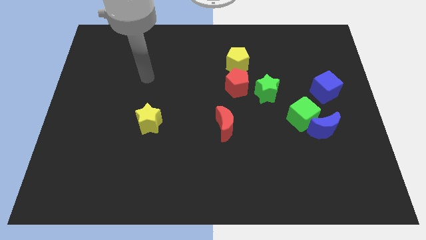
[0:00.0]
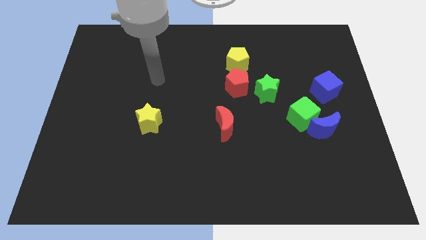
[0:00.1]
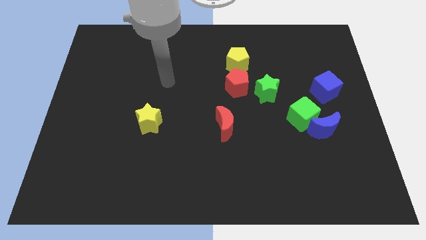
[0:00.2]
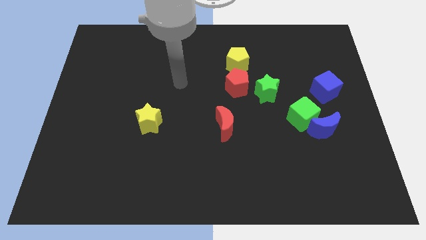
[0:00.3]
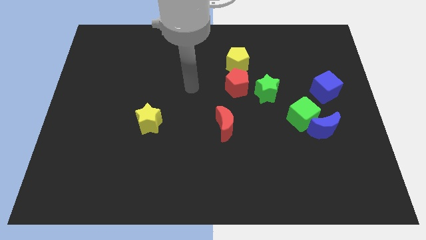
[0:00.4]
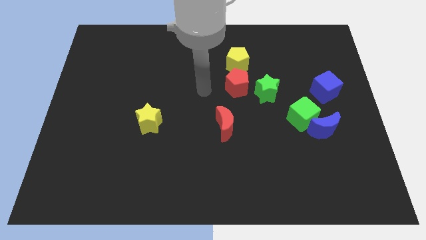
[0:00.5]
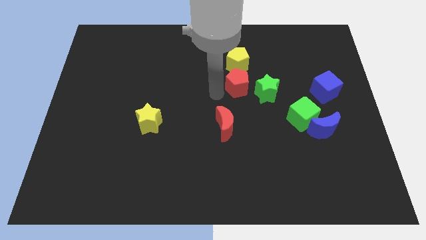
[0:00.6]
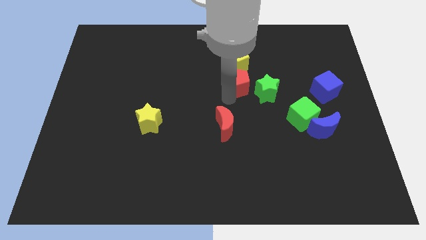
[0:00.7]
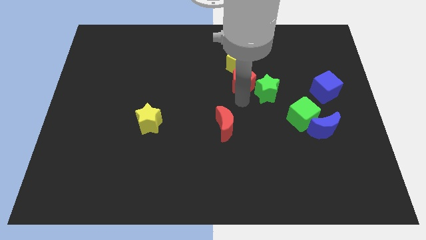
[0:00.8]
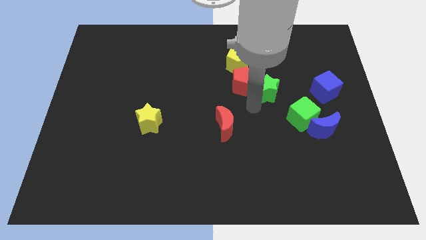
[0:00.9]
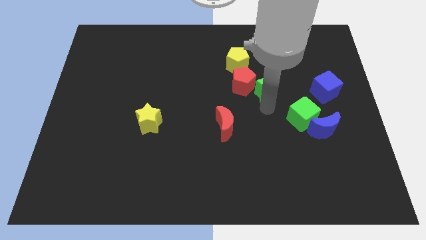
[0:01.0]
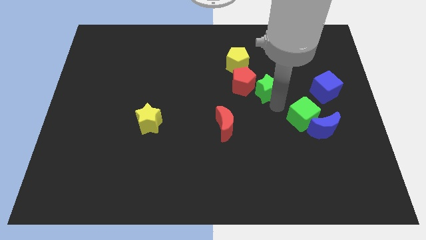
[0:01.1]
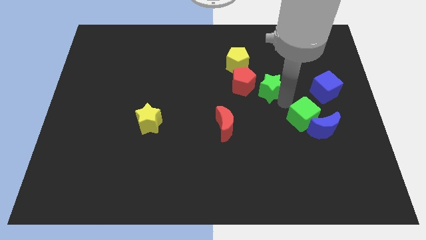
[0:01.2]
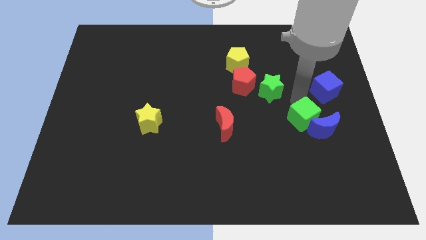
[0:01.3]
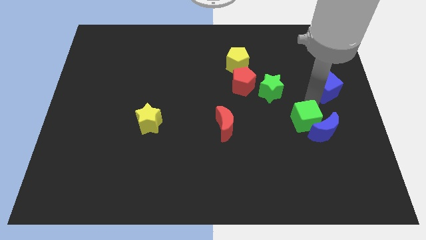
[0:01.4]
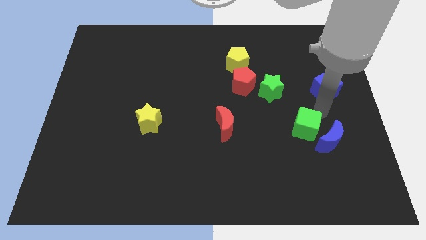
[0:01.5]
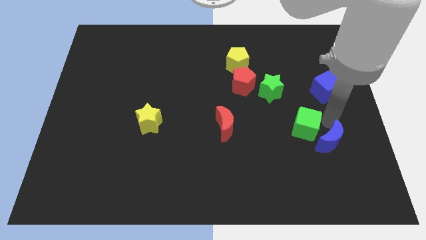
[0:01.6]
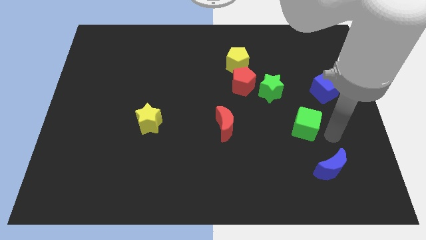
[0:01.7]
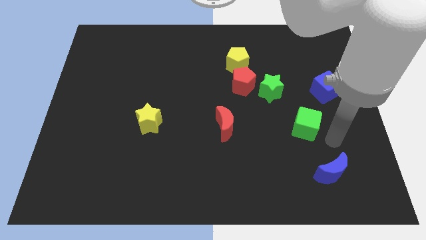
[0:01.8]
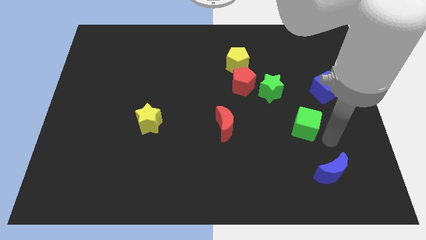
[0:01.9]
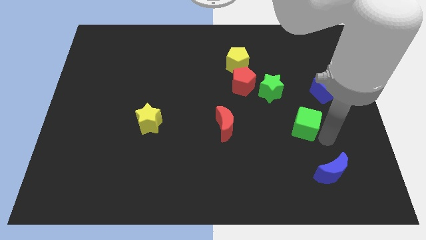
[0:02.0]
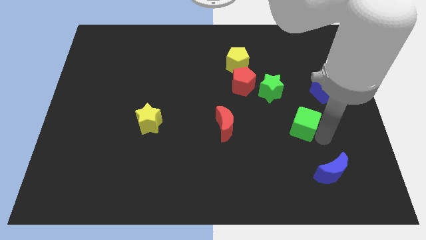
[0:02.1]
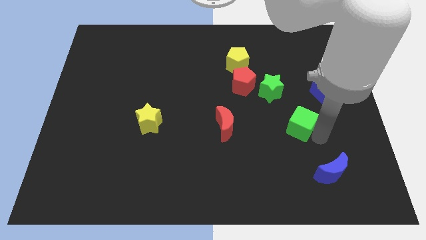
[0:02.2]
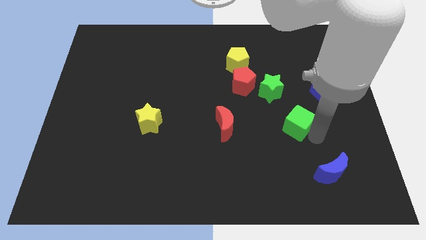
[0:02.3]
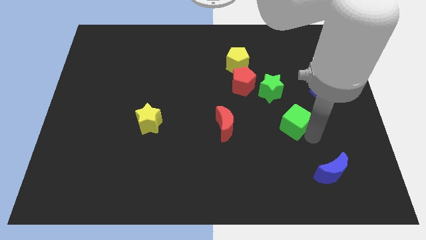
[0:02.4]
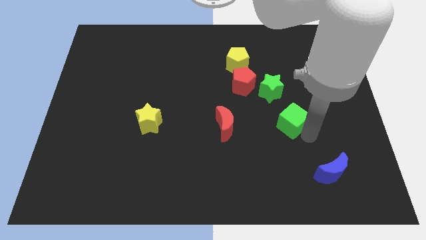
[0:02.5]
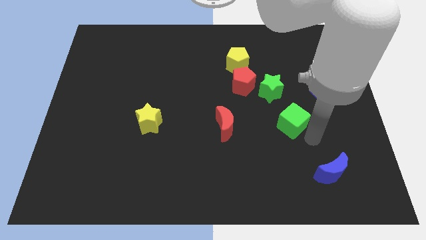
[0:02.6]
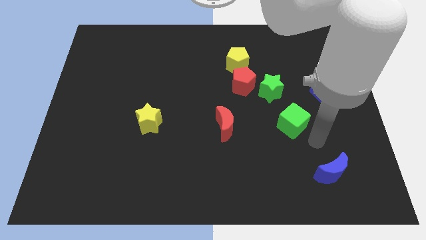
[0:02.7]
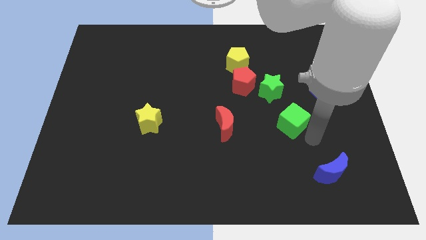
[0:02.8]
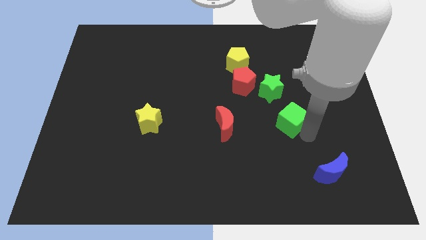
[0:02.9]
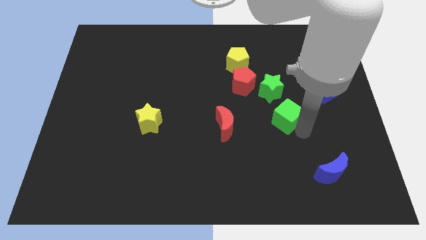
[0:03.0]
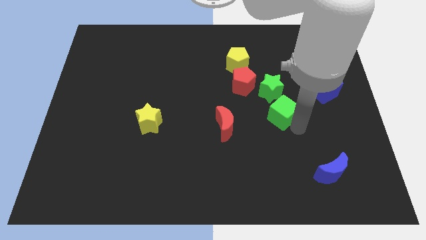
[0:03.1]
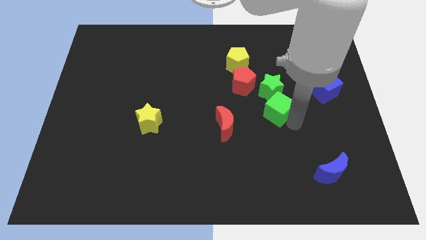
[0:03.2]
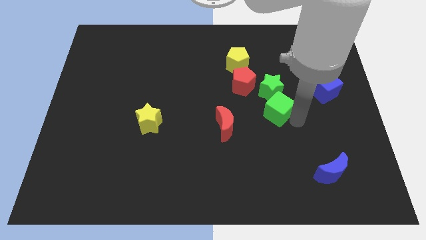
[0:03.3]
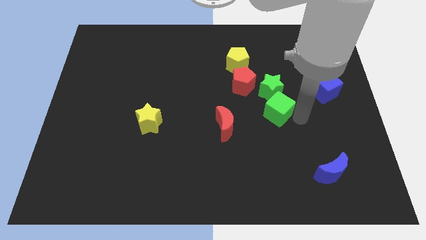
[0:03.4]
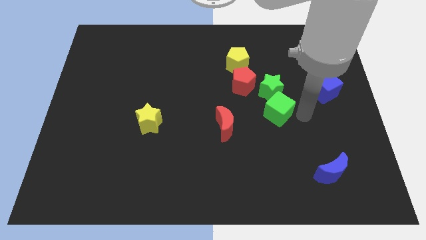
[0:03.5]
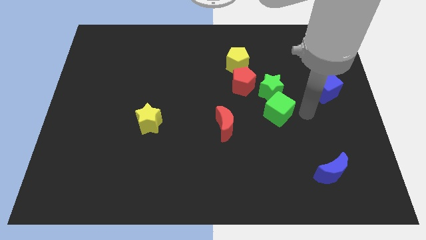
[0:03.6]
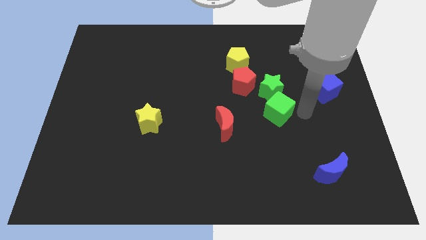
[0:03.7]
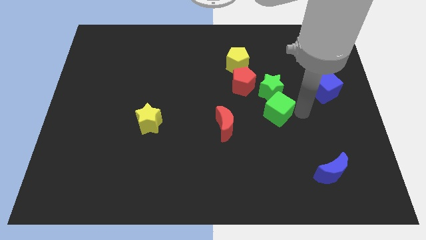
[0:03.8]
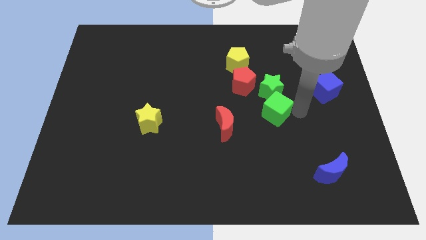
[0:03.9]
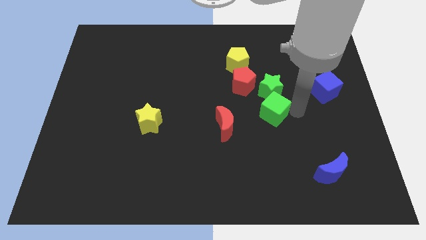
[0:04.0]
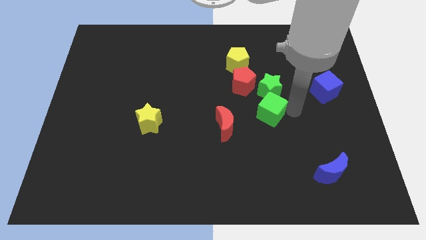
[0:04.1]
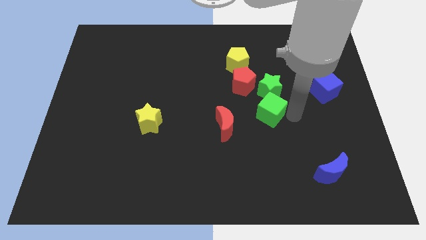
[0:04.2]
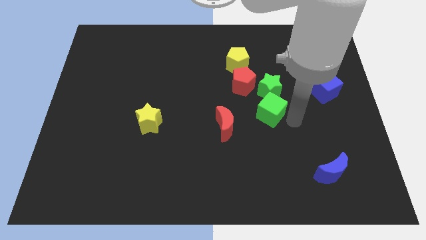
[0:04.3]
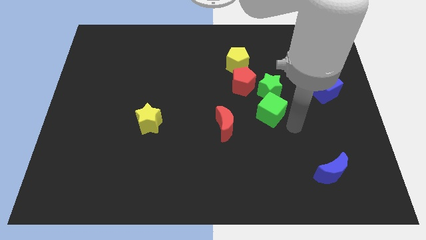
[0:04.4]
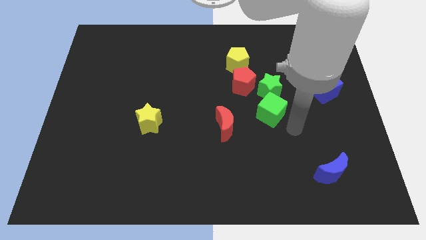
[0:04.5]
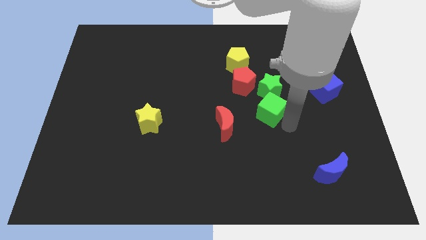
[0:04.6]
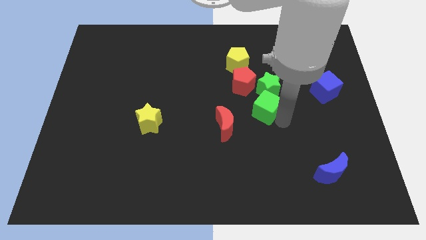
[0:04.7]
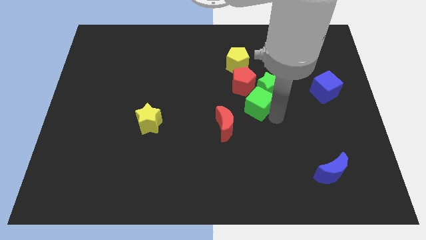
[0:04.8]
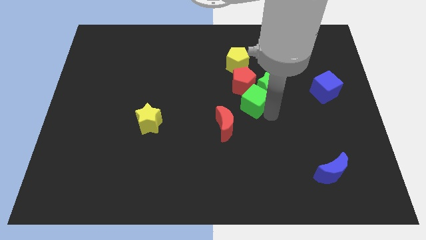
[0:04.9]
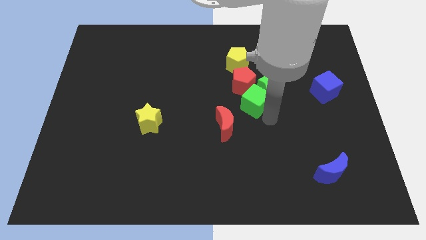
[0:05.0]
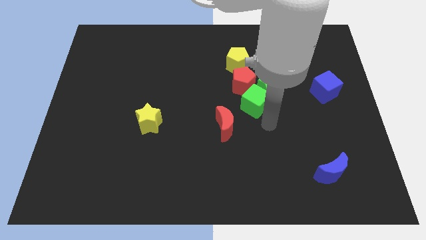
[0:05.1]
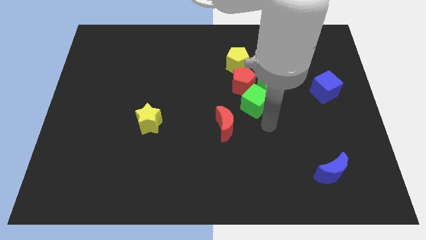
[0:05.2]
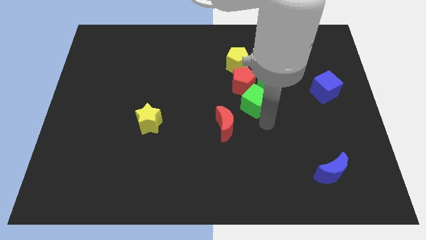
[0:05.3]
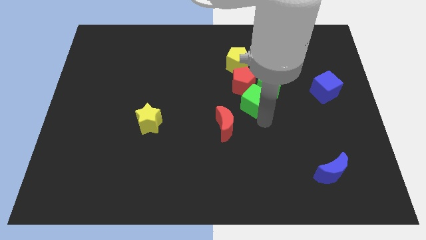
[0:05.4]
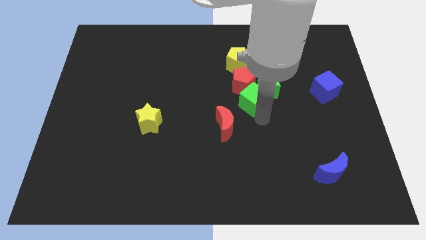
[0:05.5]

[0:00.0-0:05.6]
slide the green cube towards the red pentagon

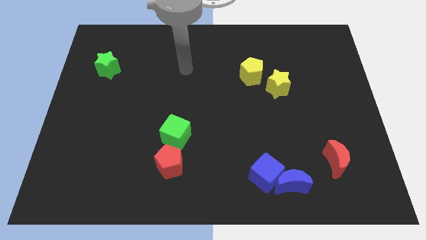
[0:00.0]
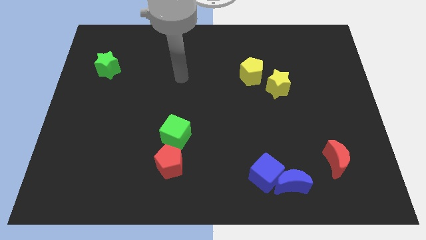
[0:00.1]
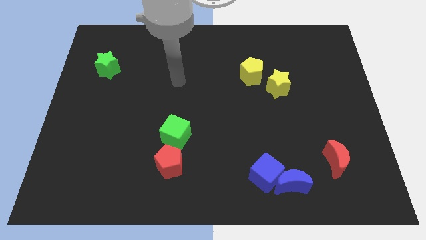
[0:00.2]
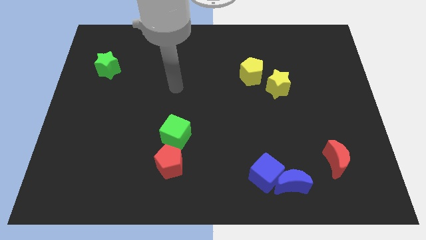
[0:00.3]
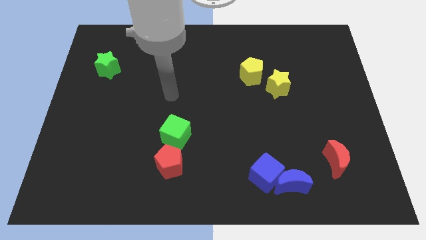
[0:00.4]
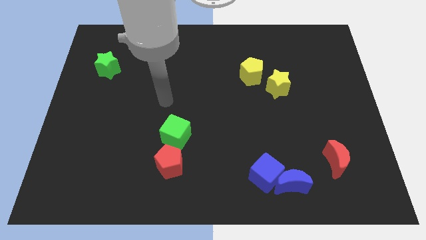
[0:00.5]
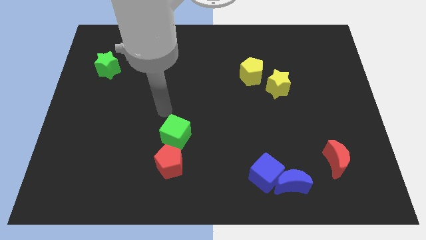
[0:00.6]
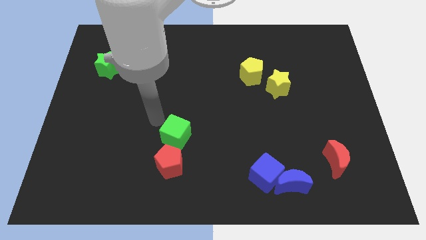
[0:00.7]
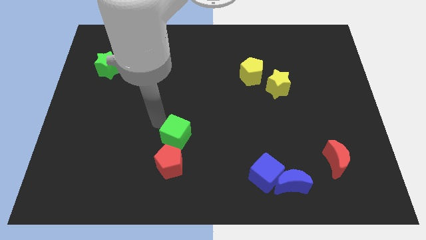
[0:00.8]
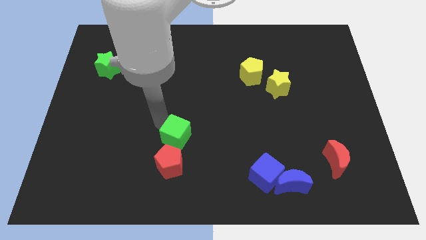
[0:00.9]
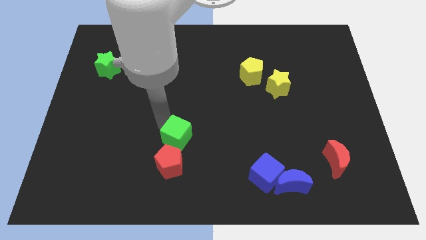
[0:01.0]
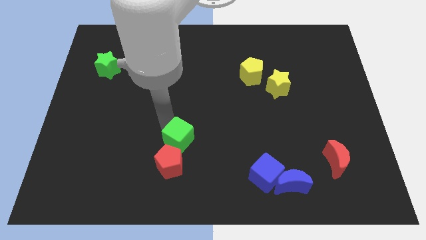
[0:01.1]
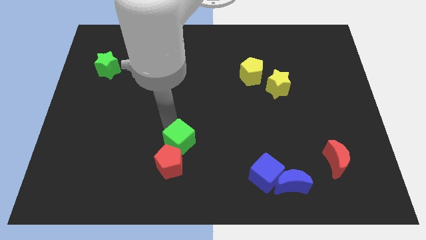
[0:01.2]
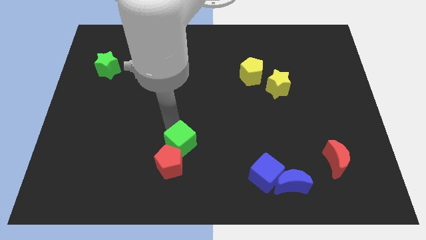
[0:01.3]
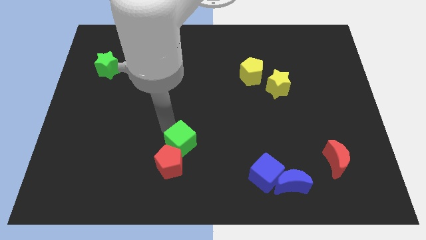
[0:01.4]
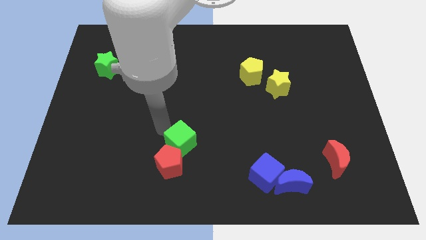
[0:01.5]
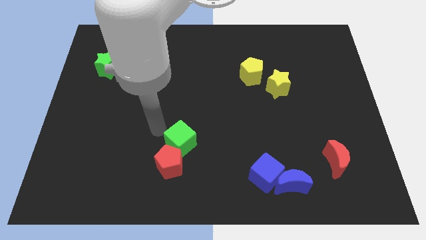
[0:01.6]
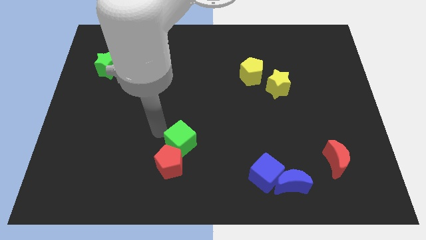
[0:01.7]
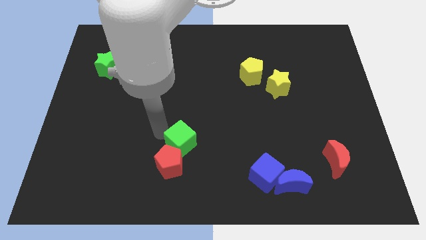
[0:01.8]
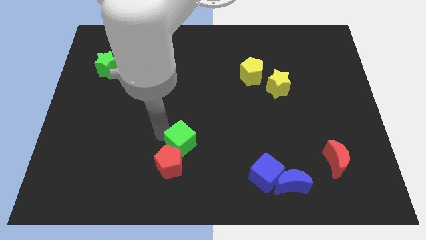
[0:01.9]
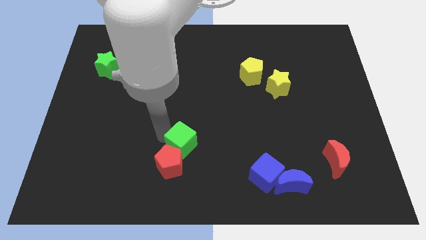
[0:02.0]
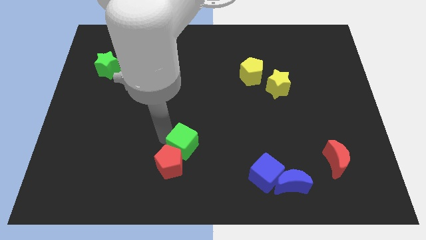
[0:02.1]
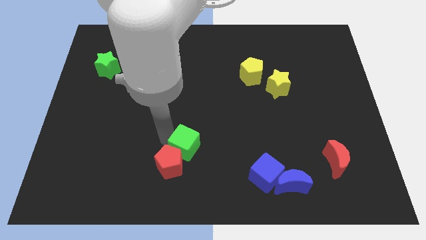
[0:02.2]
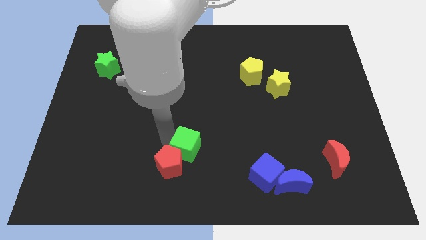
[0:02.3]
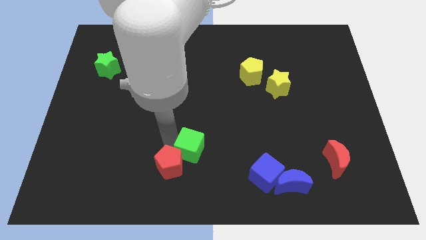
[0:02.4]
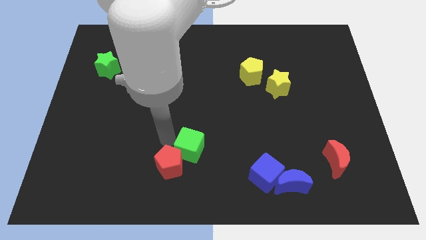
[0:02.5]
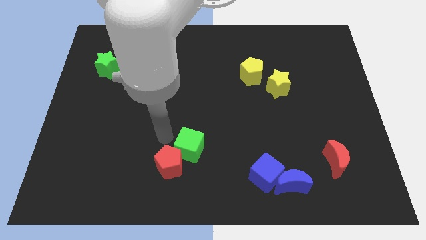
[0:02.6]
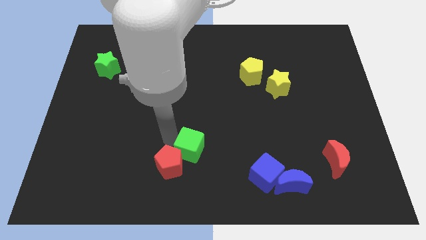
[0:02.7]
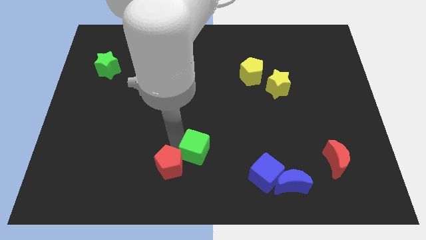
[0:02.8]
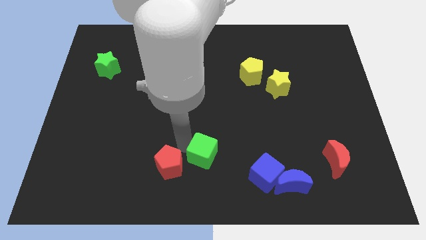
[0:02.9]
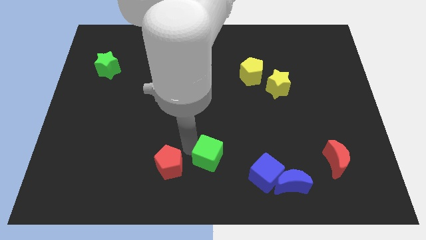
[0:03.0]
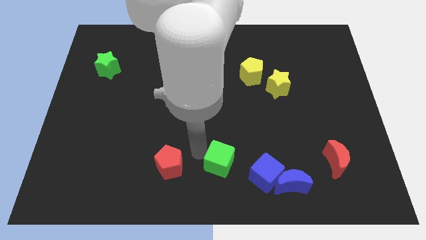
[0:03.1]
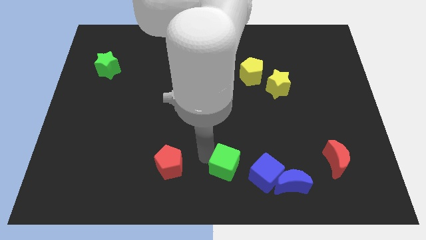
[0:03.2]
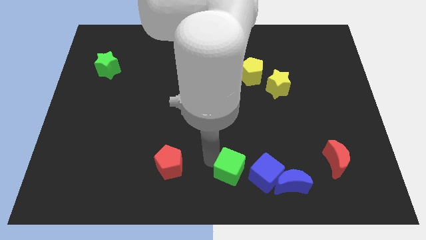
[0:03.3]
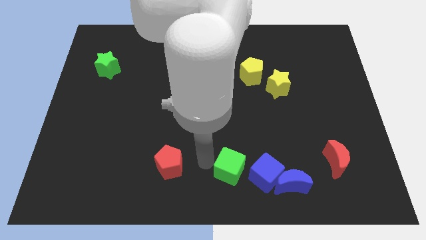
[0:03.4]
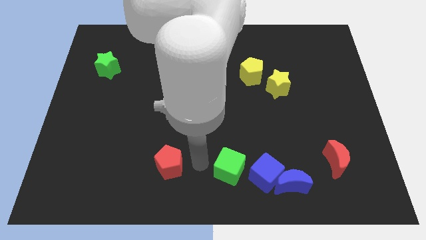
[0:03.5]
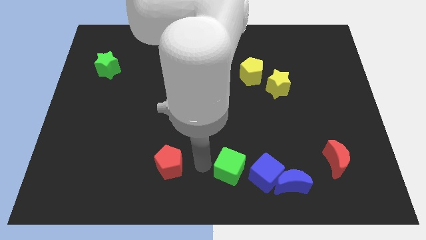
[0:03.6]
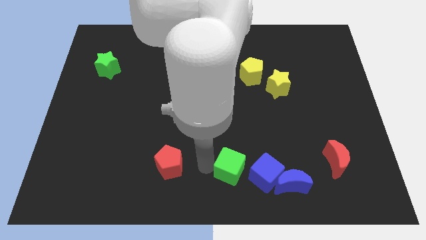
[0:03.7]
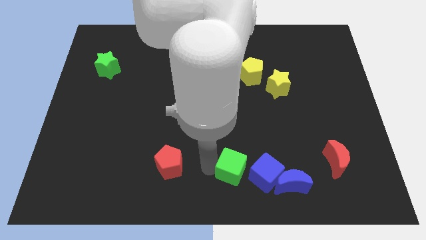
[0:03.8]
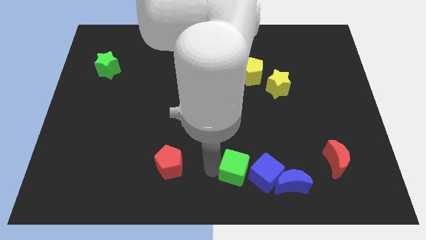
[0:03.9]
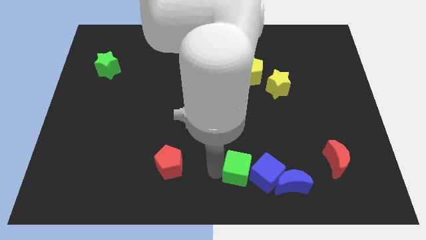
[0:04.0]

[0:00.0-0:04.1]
slide the green cube towards the blue cube
